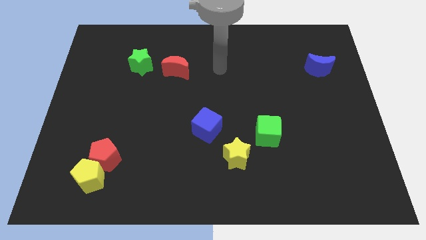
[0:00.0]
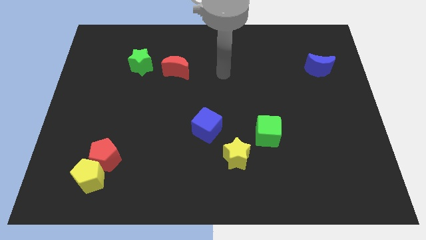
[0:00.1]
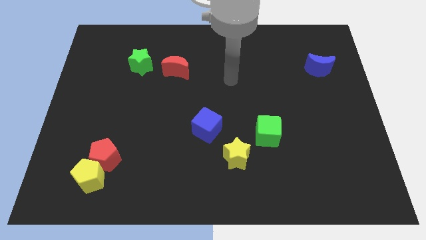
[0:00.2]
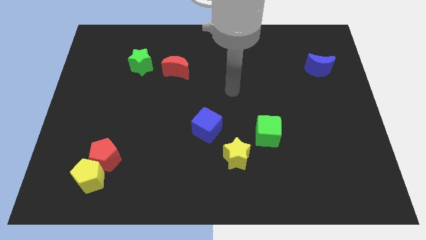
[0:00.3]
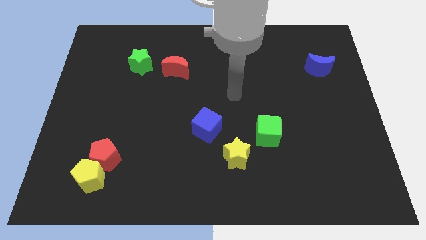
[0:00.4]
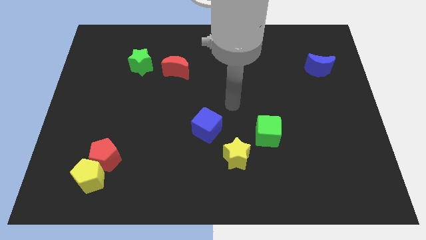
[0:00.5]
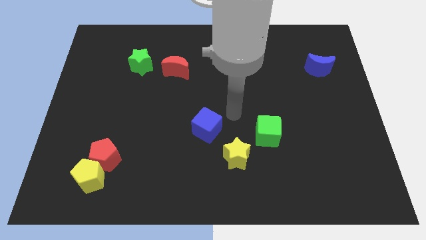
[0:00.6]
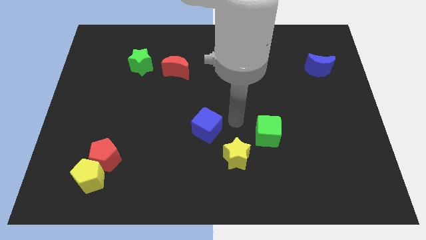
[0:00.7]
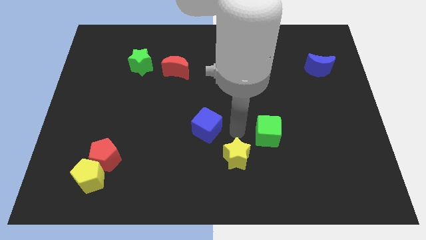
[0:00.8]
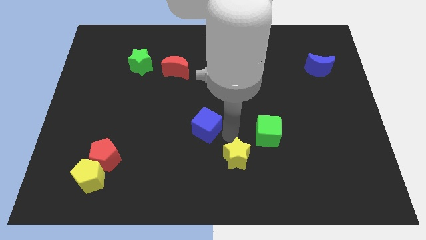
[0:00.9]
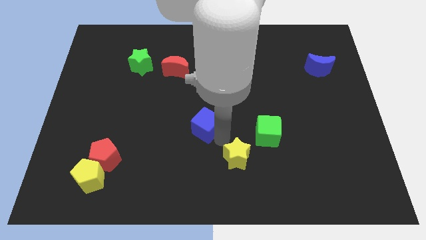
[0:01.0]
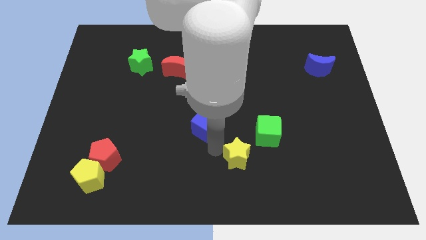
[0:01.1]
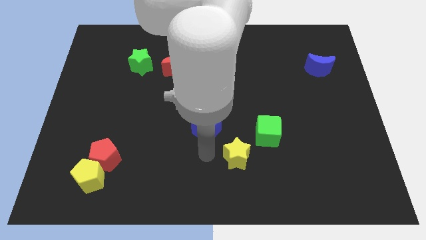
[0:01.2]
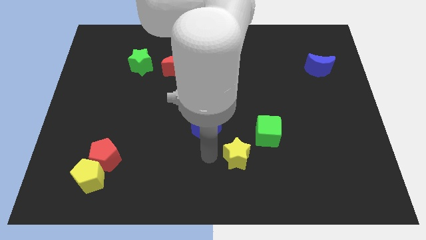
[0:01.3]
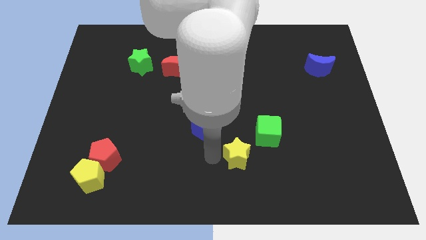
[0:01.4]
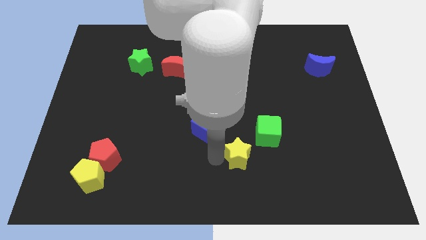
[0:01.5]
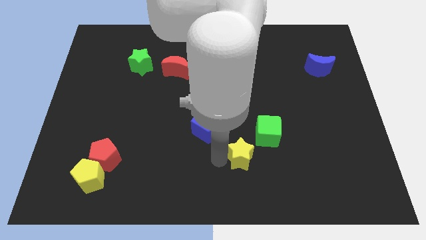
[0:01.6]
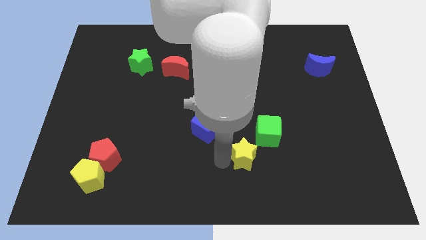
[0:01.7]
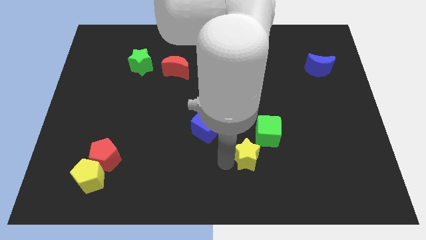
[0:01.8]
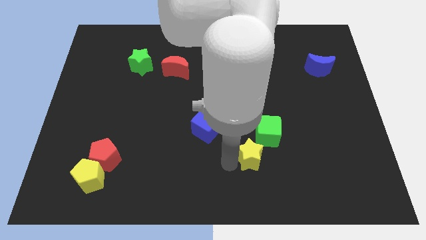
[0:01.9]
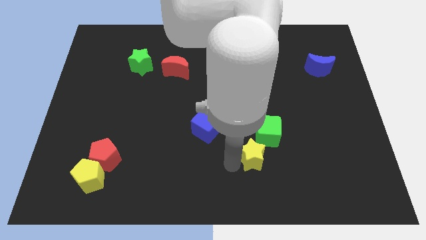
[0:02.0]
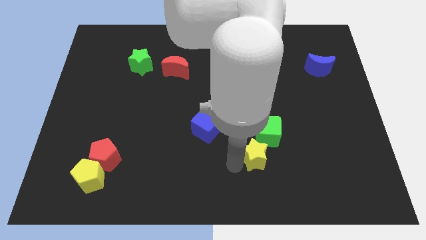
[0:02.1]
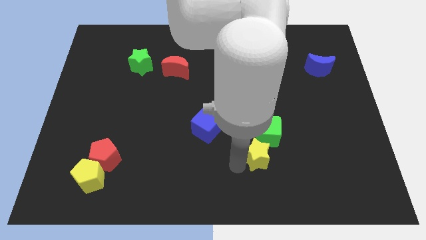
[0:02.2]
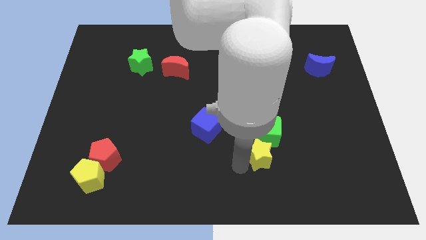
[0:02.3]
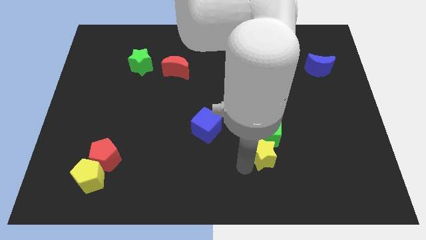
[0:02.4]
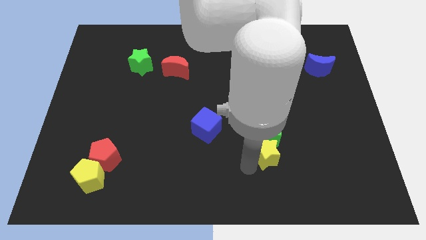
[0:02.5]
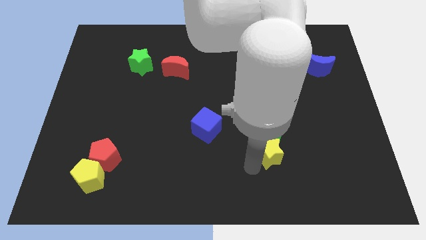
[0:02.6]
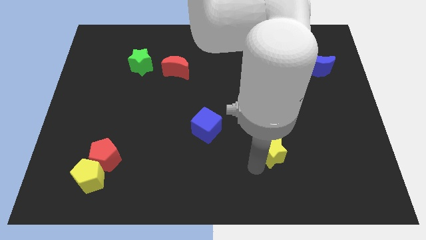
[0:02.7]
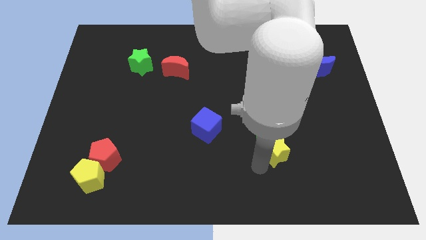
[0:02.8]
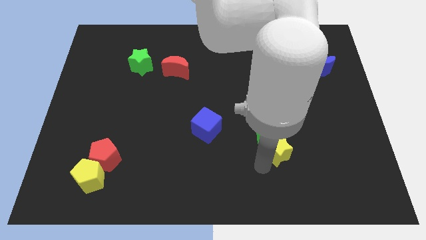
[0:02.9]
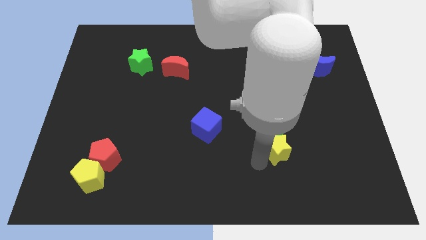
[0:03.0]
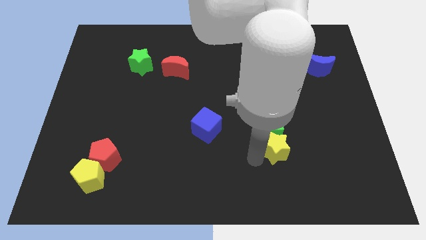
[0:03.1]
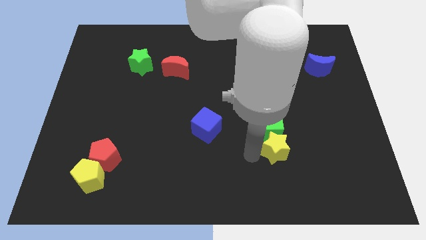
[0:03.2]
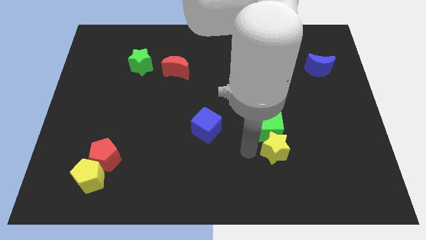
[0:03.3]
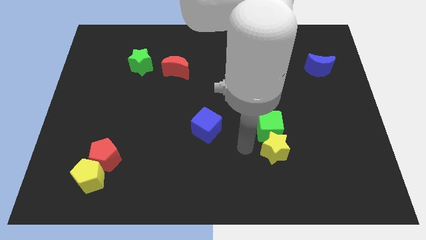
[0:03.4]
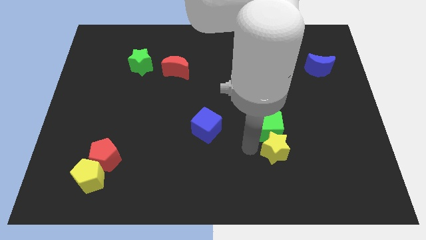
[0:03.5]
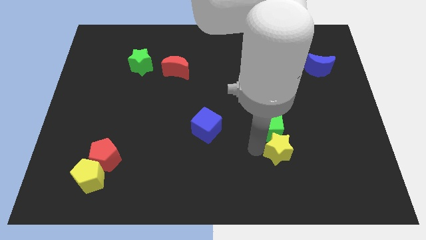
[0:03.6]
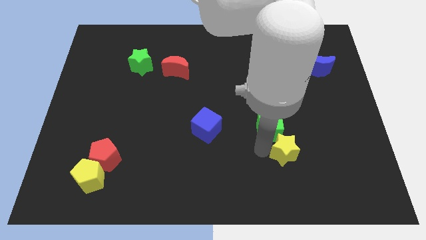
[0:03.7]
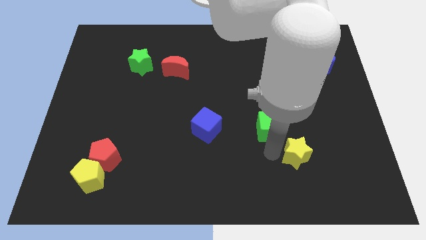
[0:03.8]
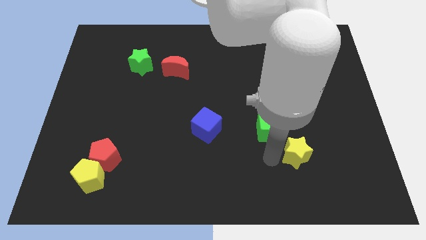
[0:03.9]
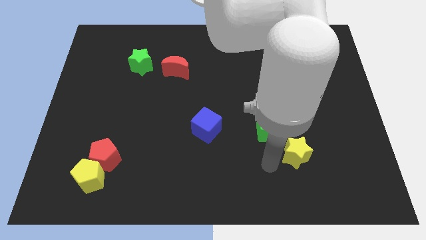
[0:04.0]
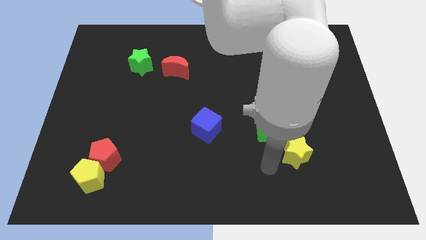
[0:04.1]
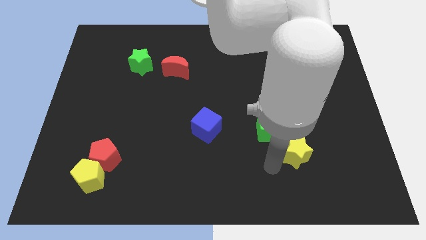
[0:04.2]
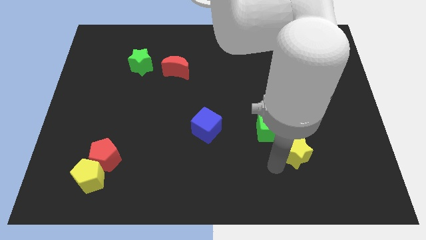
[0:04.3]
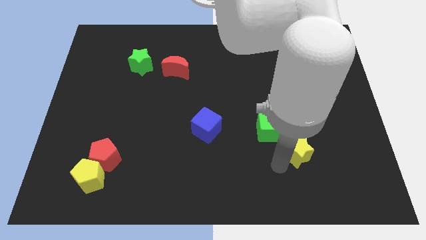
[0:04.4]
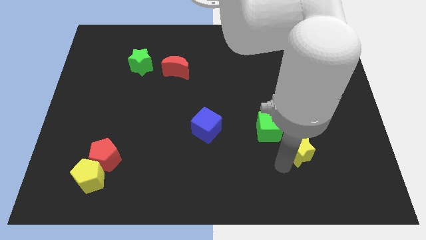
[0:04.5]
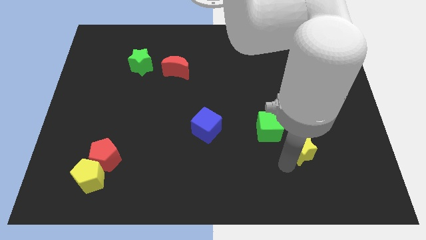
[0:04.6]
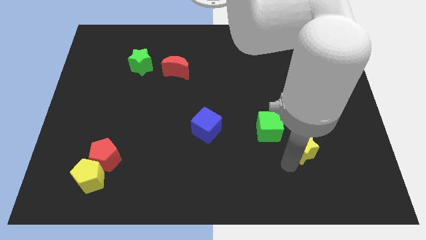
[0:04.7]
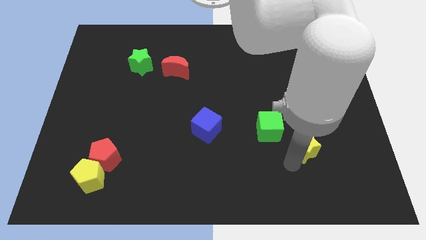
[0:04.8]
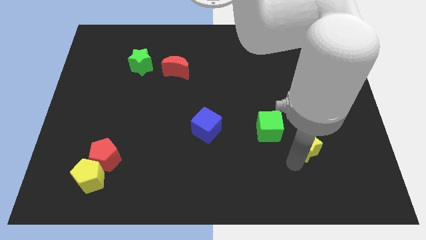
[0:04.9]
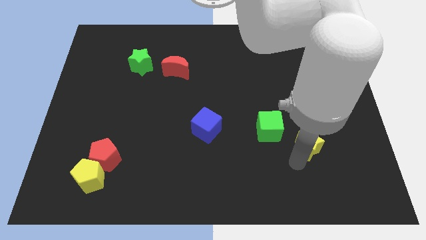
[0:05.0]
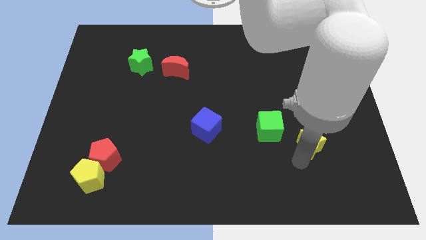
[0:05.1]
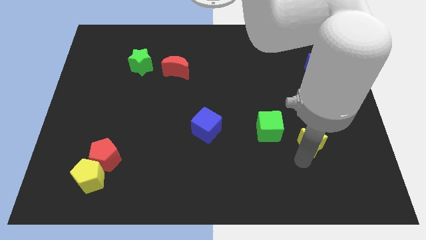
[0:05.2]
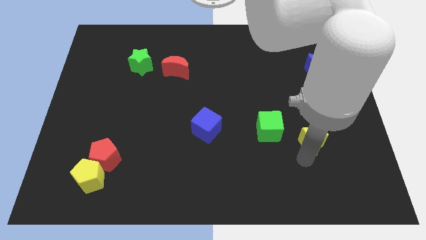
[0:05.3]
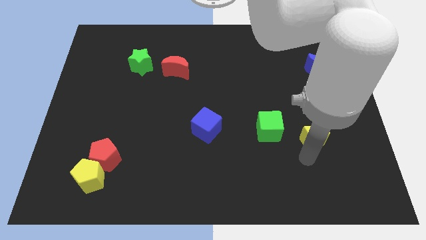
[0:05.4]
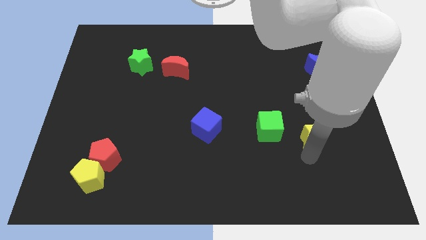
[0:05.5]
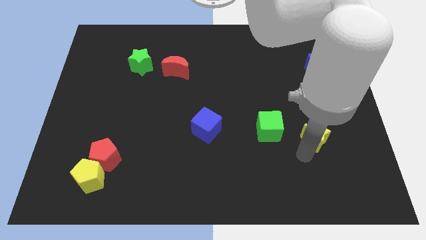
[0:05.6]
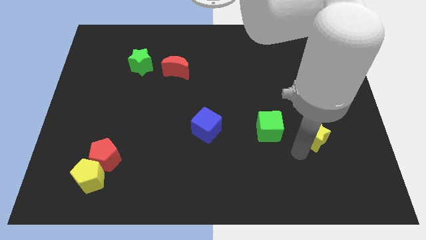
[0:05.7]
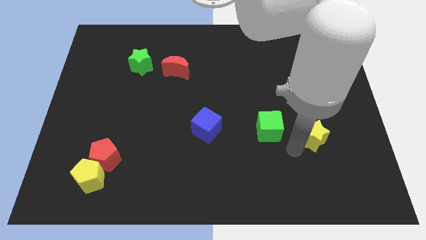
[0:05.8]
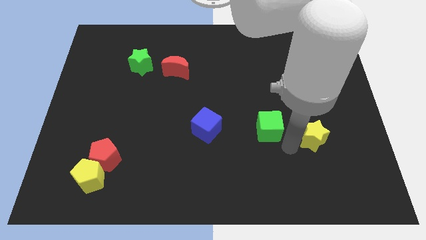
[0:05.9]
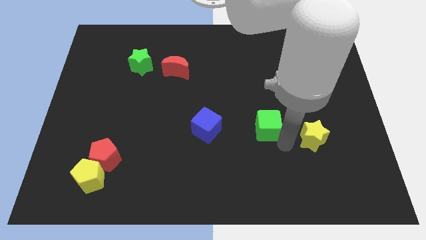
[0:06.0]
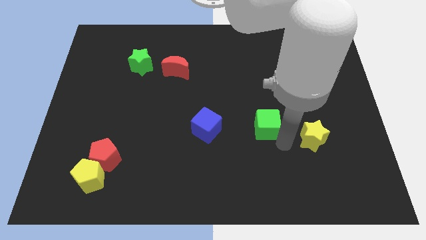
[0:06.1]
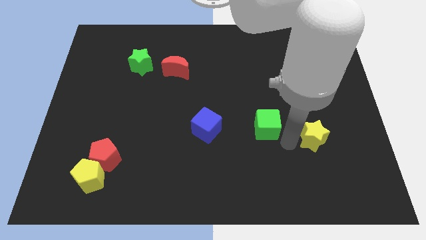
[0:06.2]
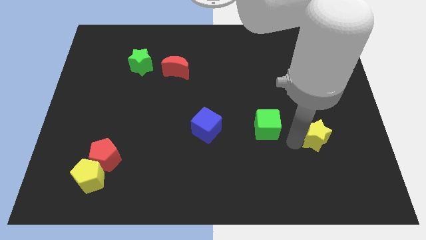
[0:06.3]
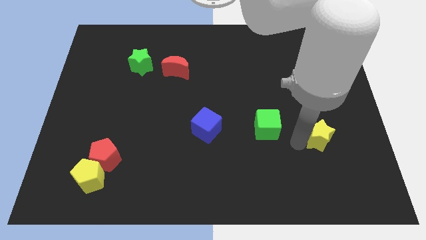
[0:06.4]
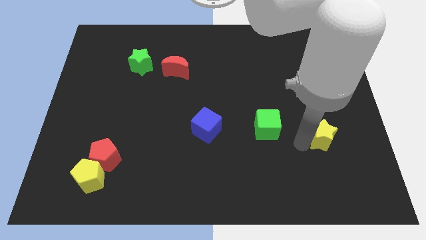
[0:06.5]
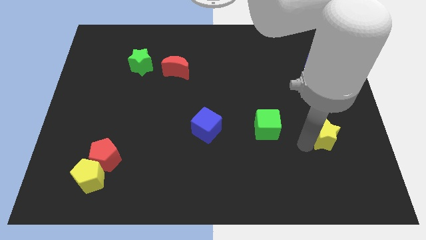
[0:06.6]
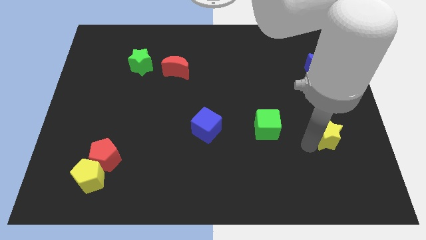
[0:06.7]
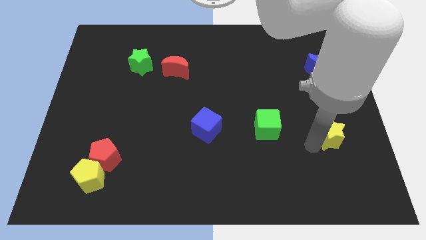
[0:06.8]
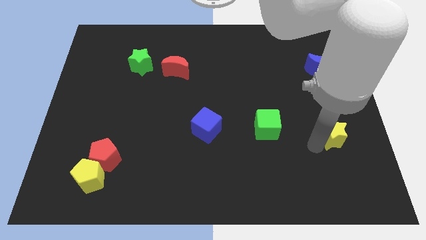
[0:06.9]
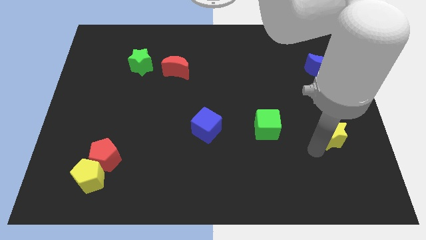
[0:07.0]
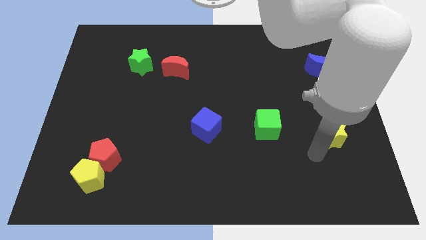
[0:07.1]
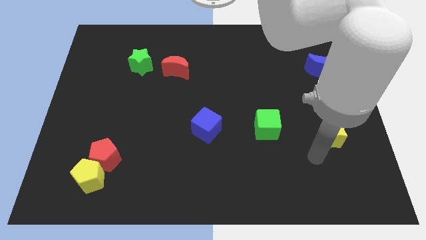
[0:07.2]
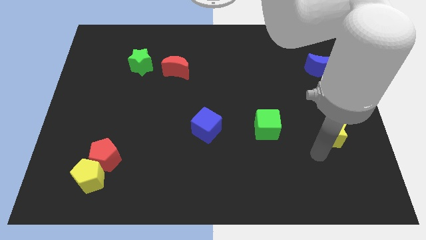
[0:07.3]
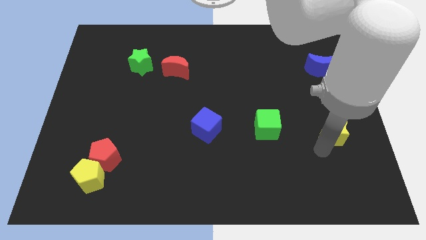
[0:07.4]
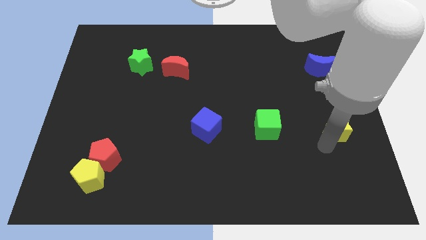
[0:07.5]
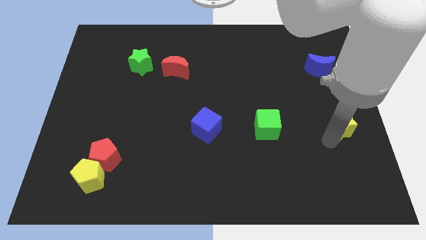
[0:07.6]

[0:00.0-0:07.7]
move the yellow star to the right side
